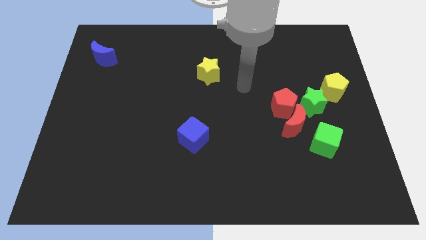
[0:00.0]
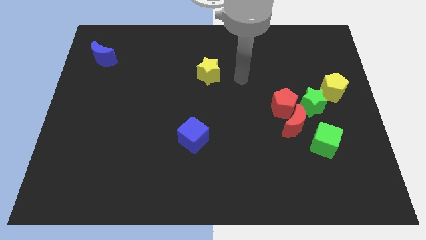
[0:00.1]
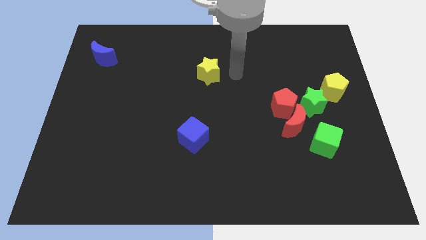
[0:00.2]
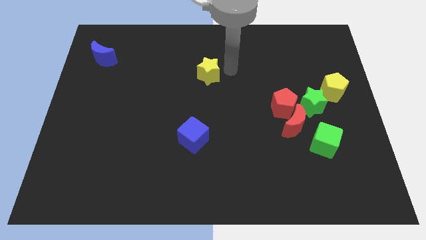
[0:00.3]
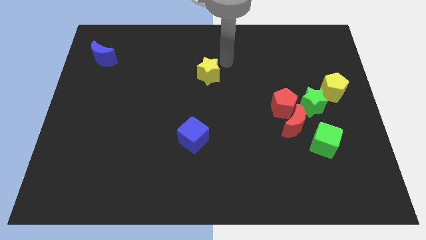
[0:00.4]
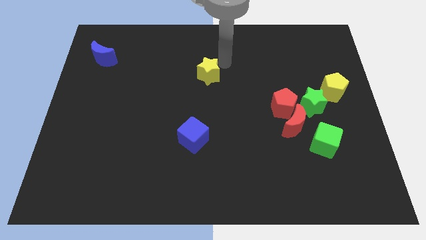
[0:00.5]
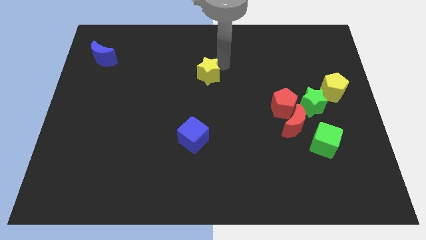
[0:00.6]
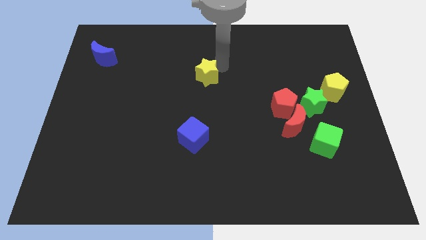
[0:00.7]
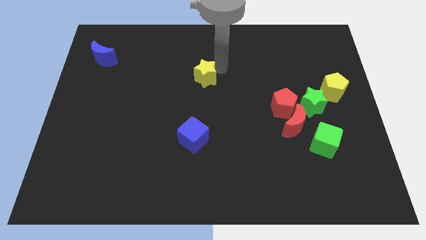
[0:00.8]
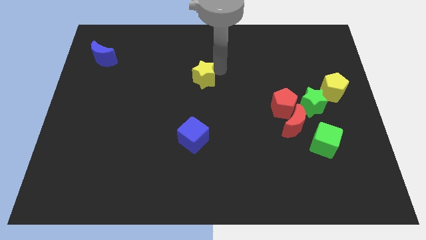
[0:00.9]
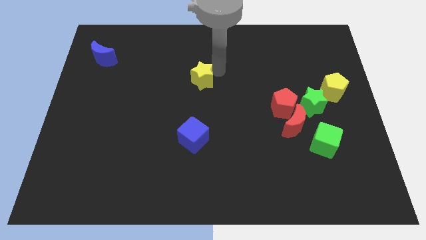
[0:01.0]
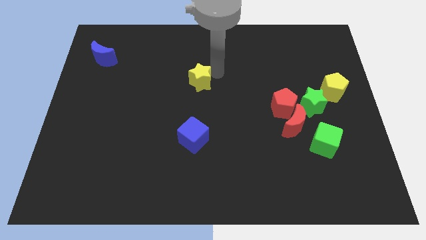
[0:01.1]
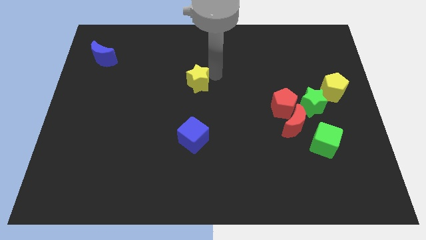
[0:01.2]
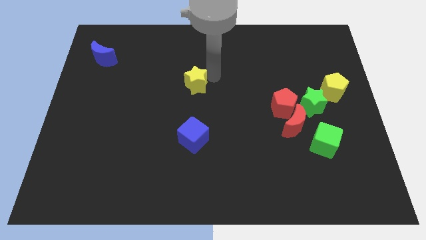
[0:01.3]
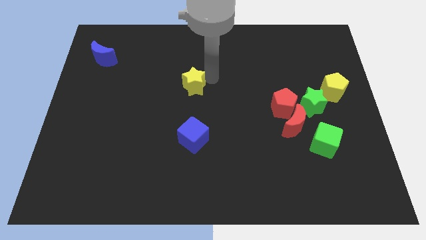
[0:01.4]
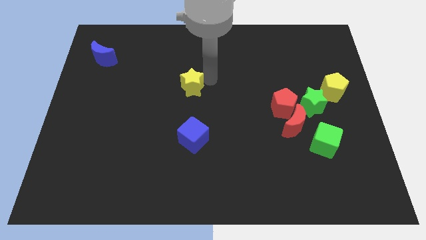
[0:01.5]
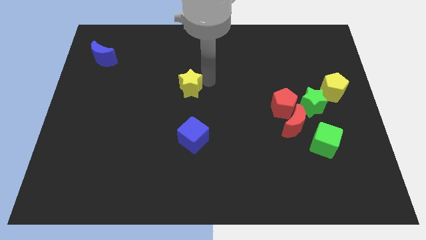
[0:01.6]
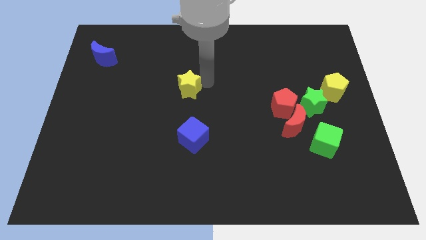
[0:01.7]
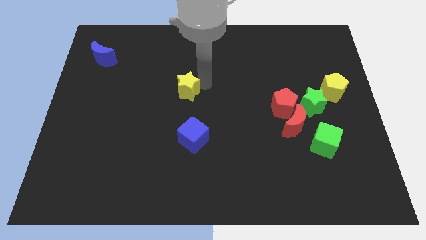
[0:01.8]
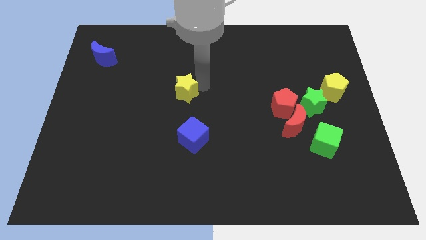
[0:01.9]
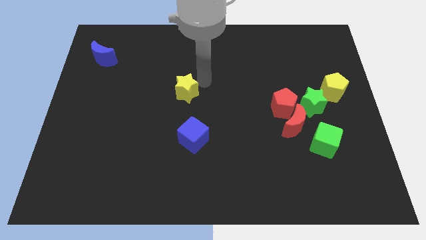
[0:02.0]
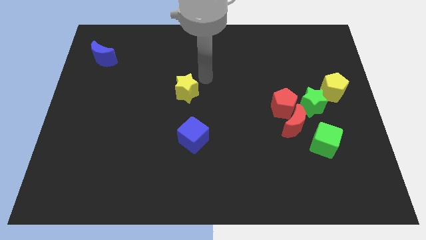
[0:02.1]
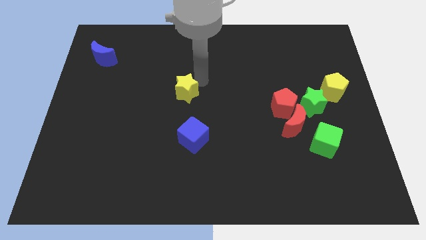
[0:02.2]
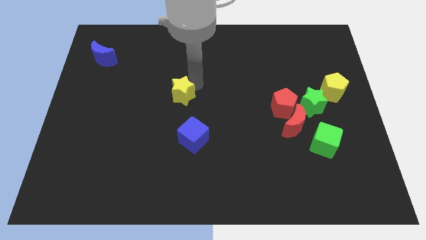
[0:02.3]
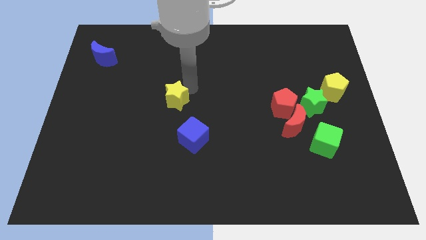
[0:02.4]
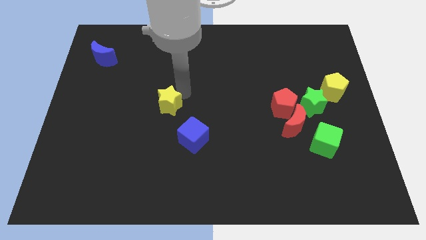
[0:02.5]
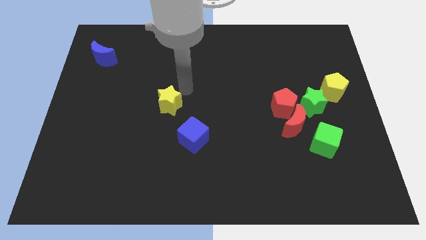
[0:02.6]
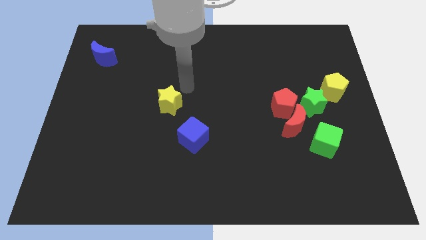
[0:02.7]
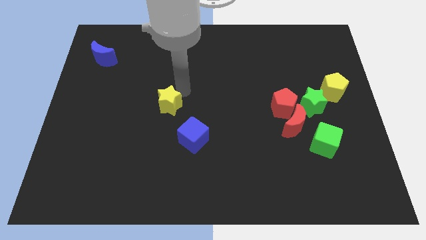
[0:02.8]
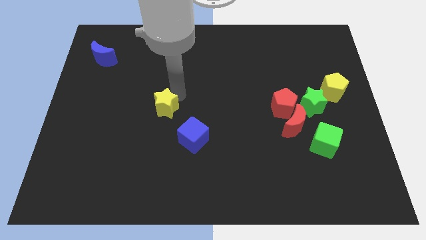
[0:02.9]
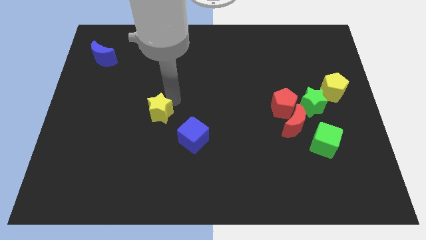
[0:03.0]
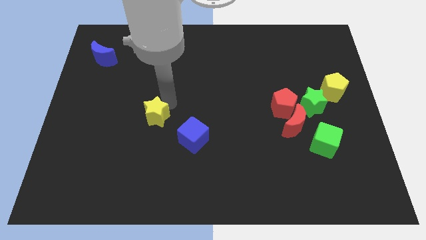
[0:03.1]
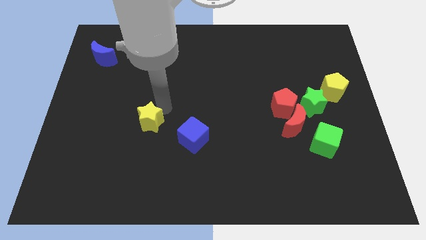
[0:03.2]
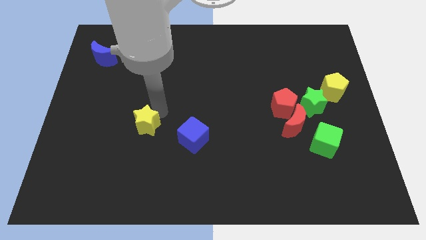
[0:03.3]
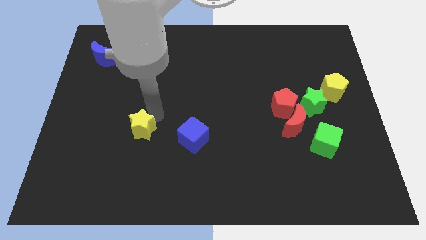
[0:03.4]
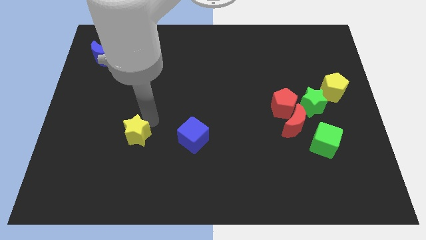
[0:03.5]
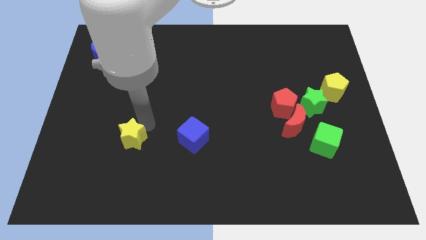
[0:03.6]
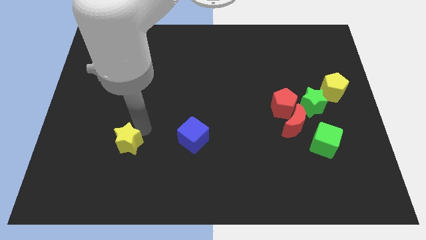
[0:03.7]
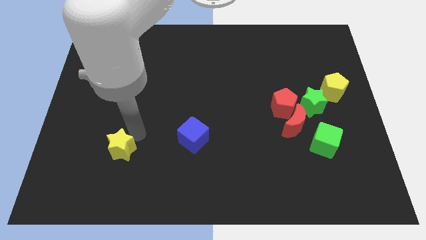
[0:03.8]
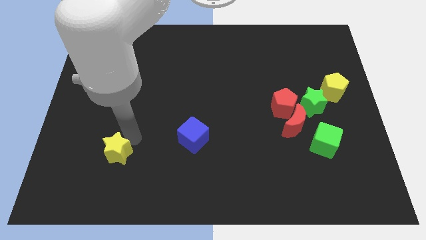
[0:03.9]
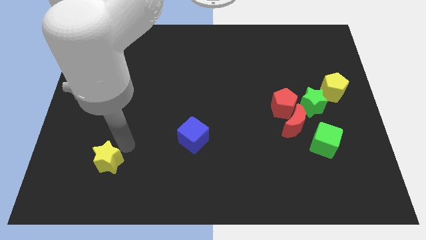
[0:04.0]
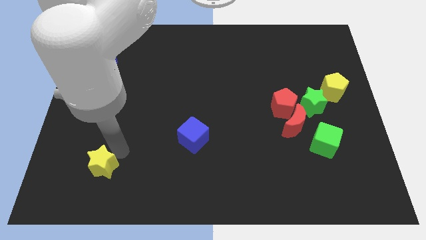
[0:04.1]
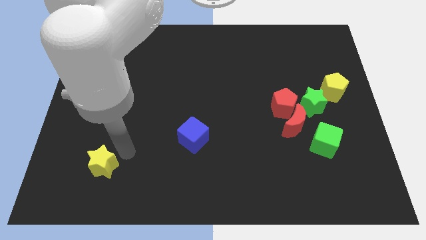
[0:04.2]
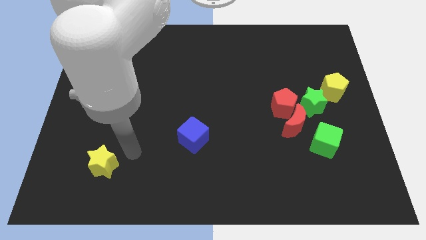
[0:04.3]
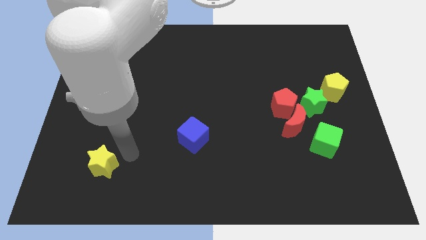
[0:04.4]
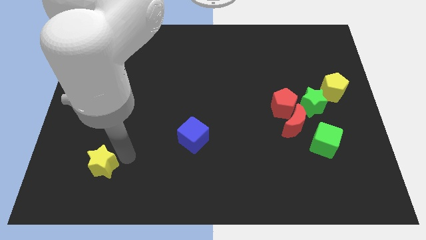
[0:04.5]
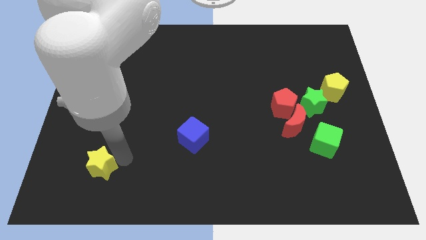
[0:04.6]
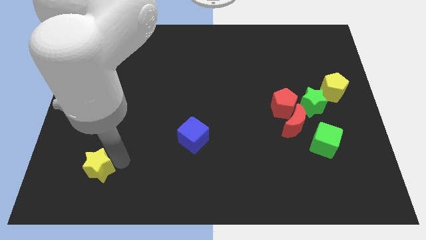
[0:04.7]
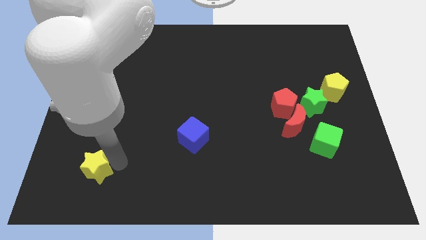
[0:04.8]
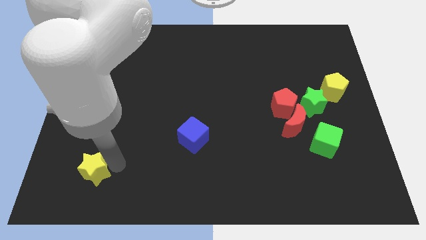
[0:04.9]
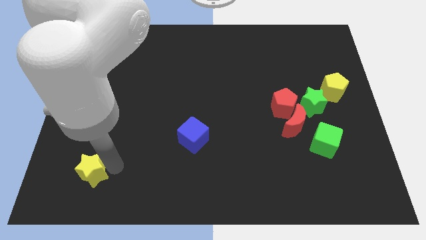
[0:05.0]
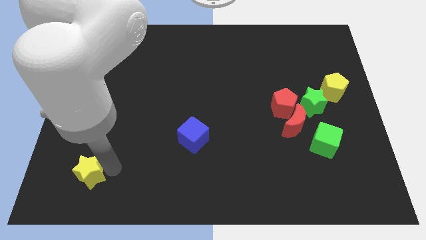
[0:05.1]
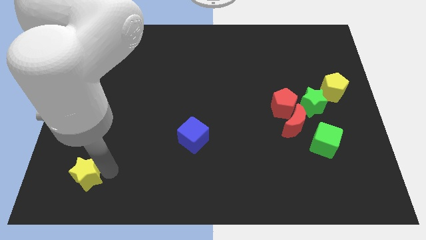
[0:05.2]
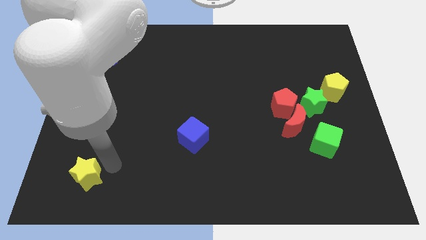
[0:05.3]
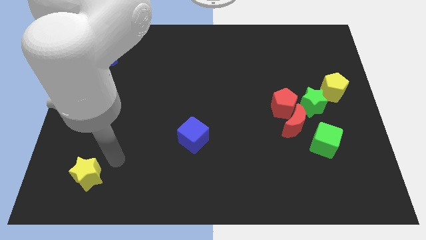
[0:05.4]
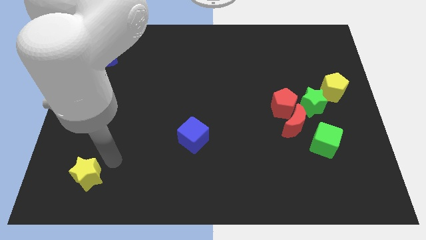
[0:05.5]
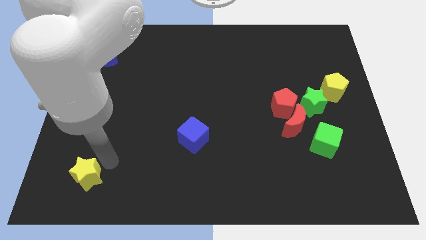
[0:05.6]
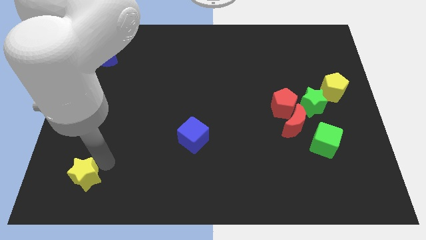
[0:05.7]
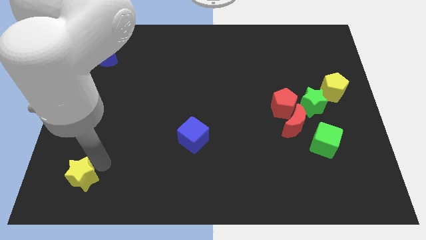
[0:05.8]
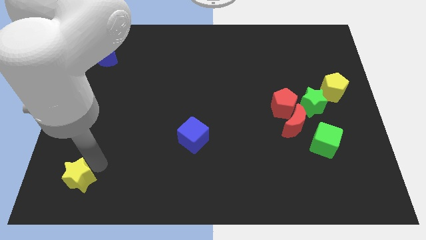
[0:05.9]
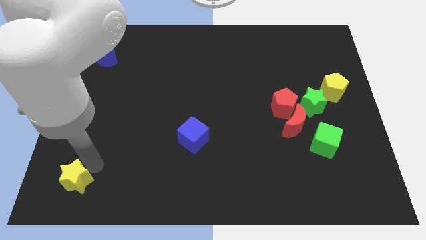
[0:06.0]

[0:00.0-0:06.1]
move the yellow star to the bottom left
